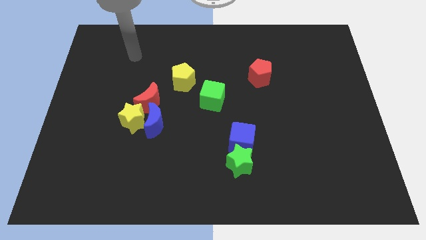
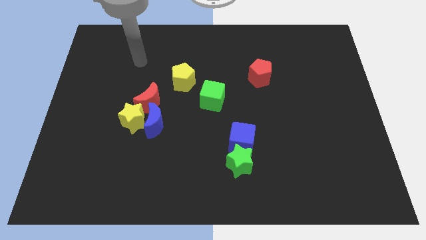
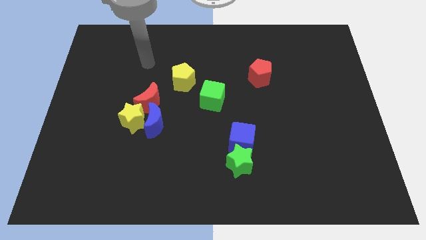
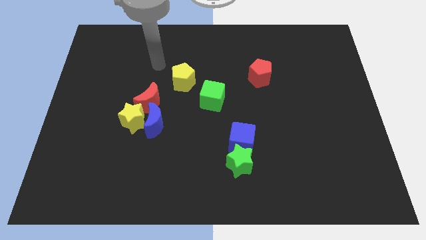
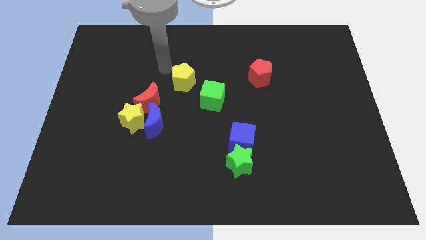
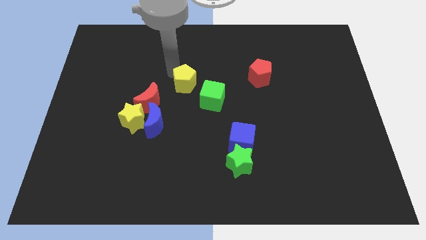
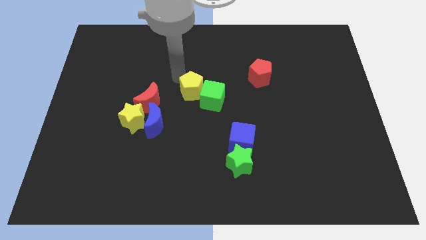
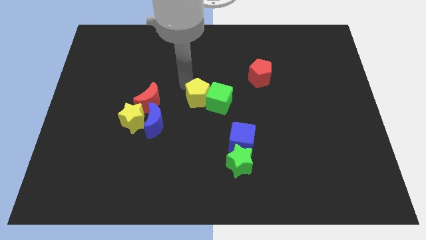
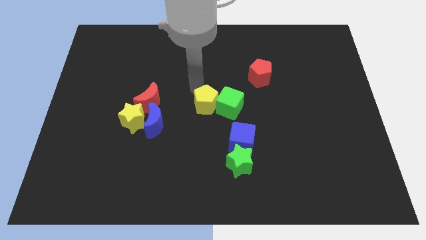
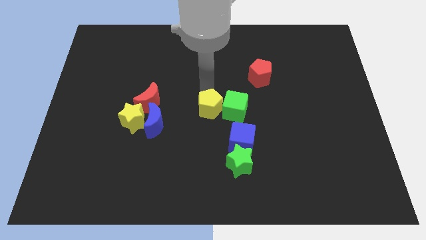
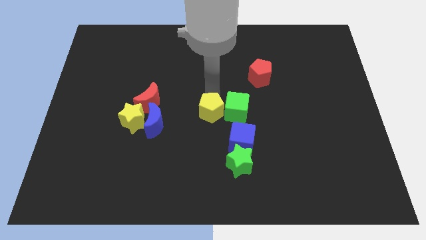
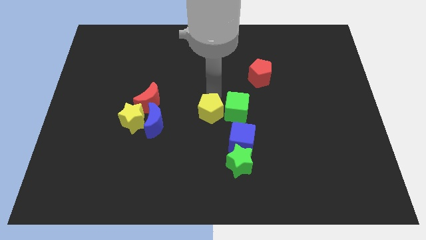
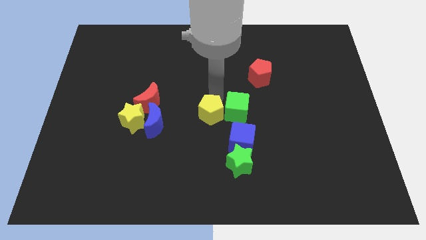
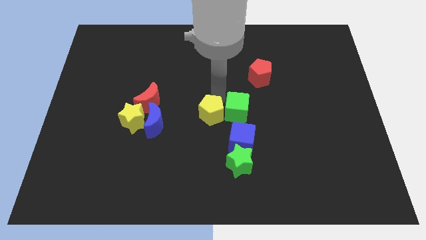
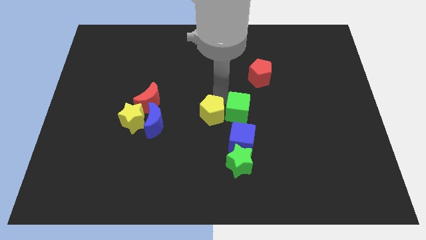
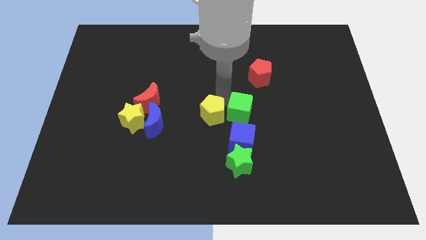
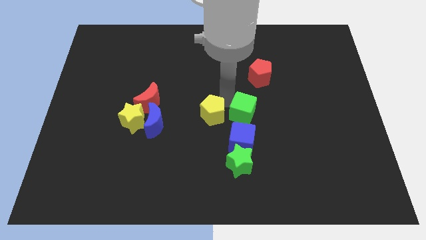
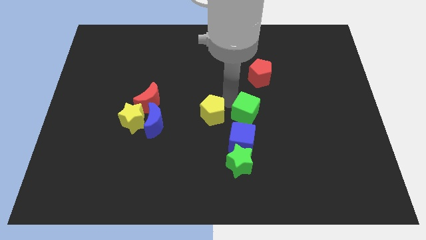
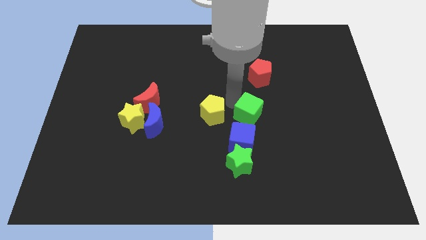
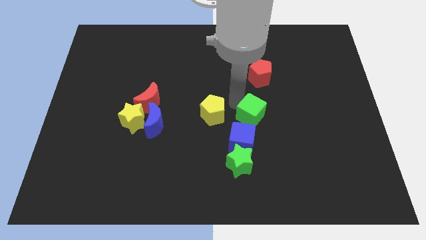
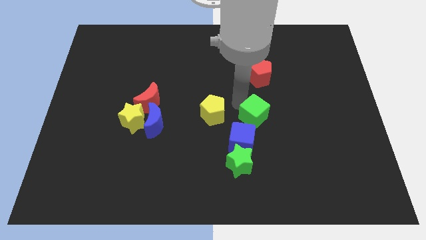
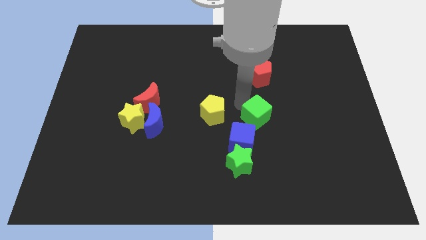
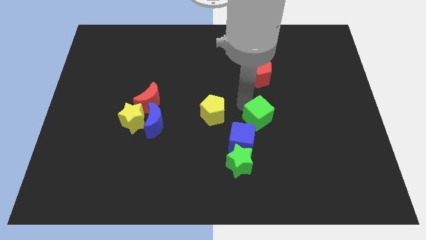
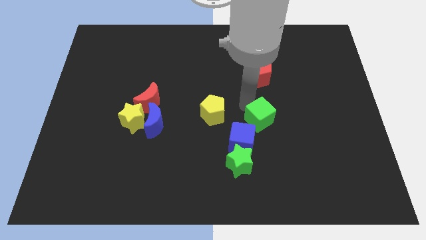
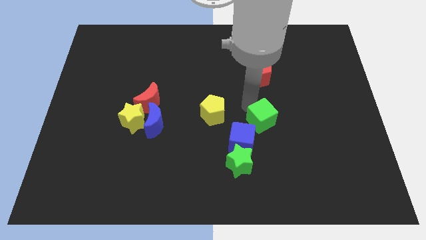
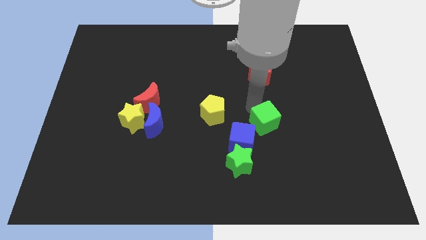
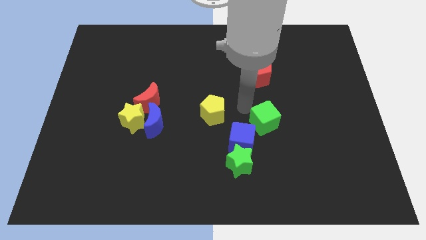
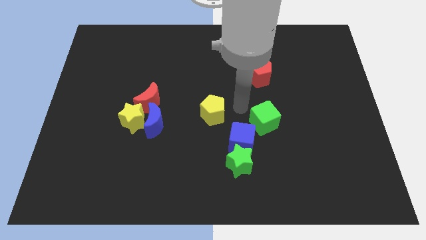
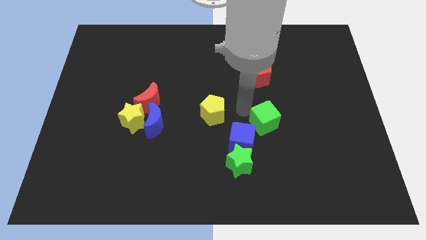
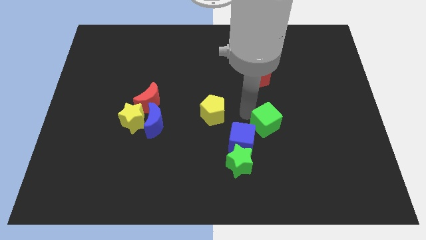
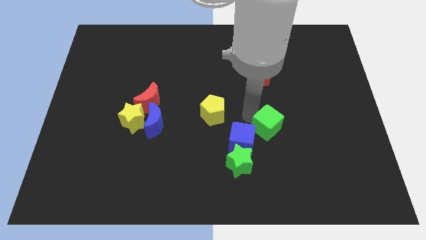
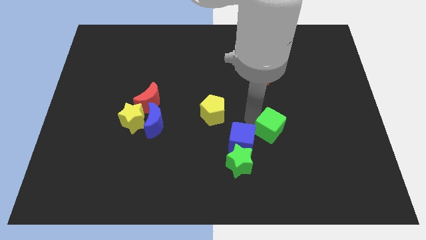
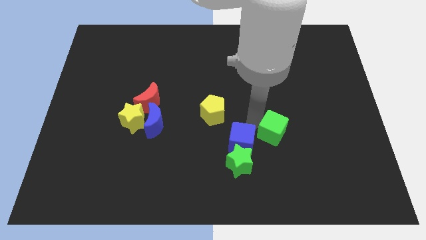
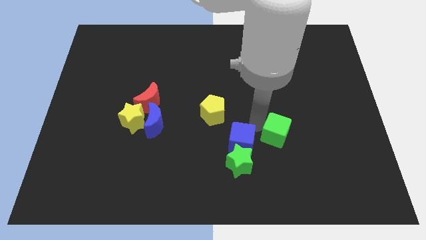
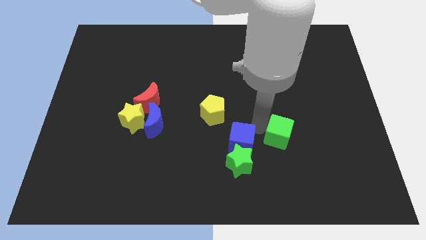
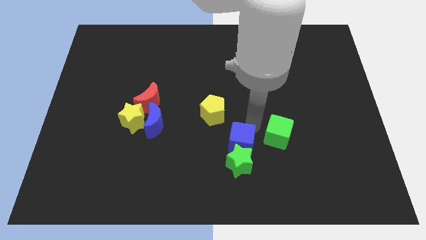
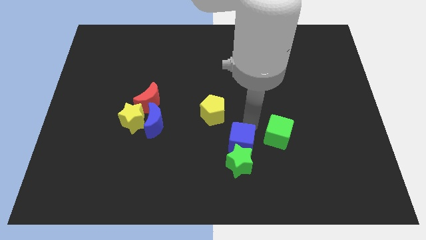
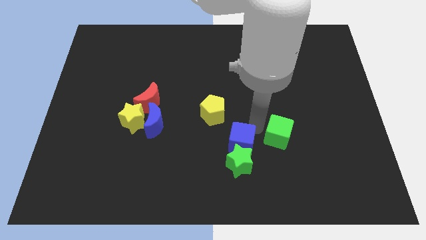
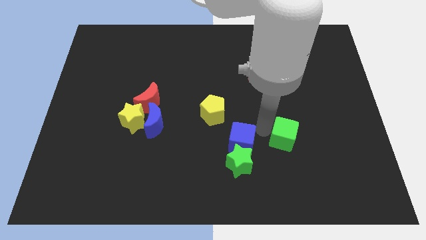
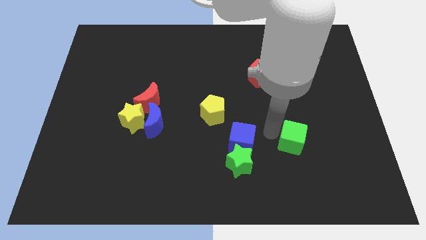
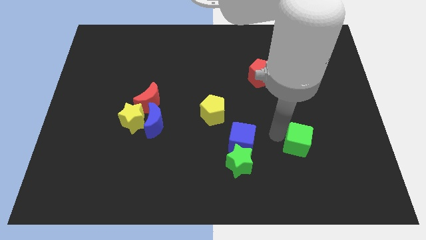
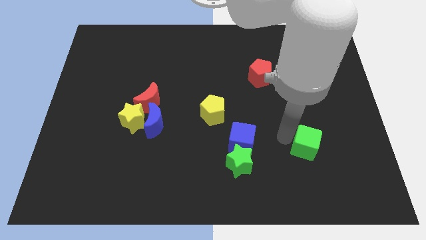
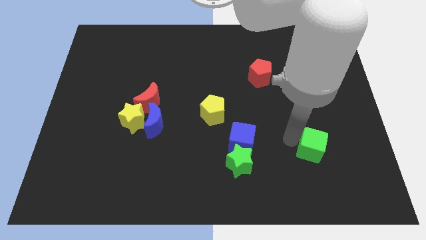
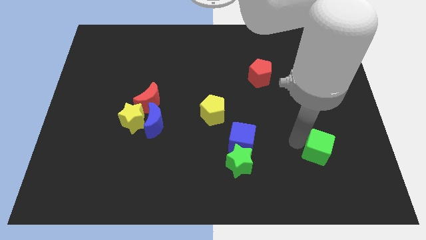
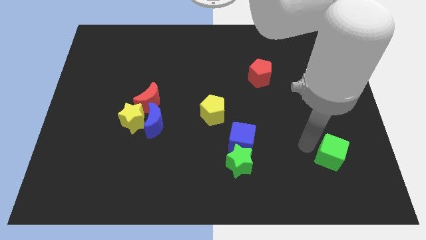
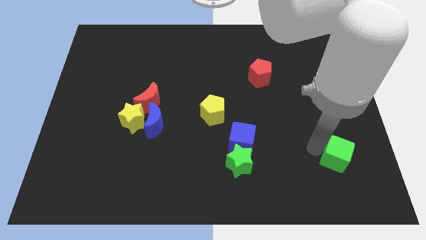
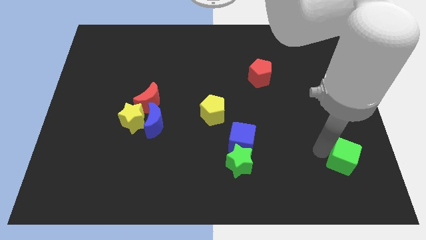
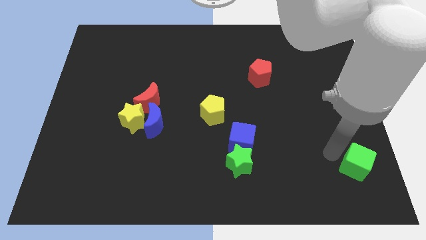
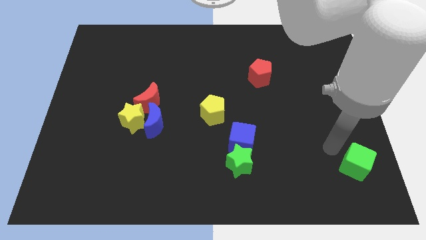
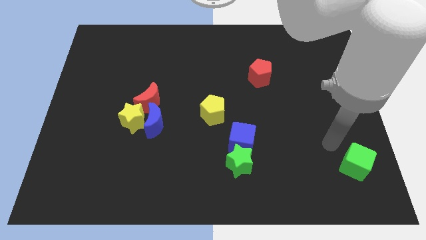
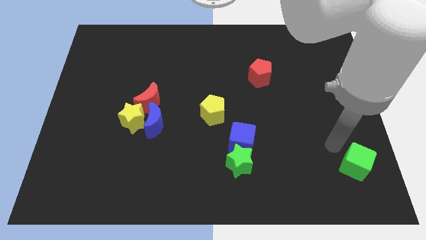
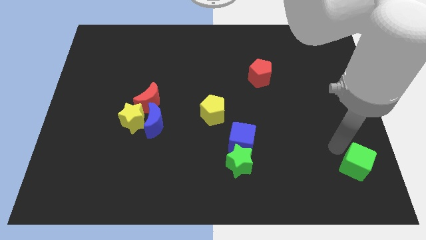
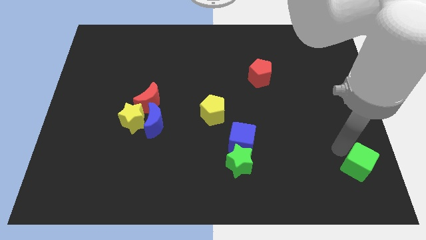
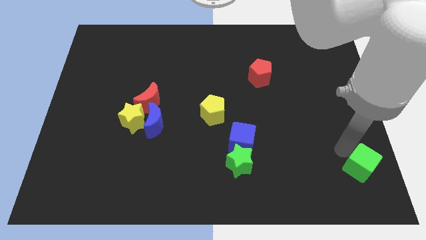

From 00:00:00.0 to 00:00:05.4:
slide the green cube to the lower right corner
